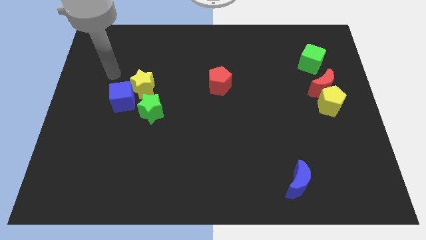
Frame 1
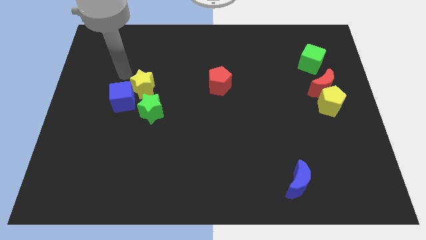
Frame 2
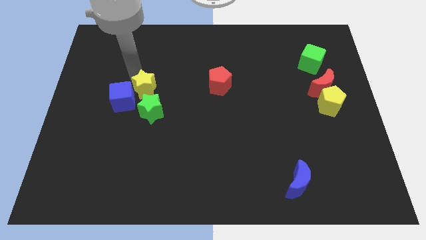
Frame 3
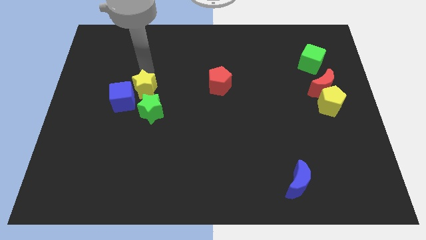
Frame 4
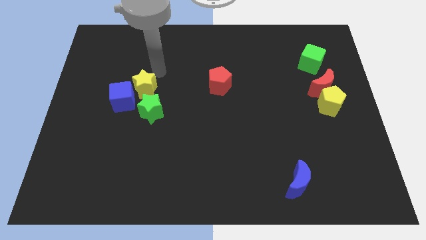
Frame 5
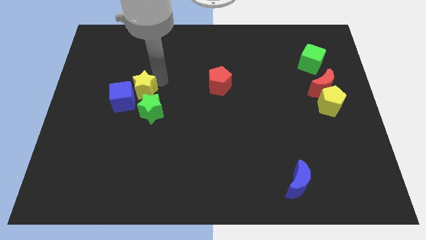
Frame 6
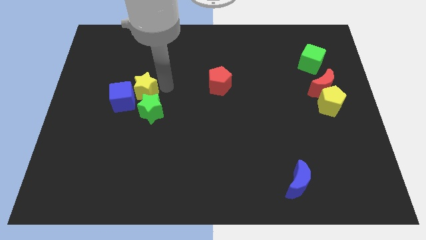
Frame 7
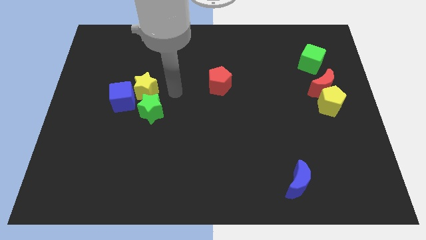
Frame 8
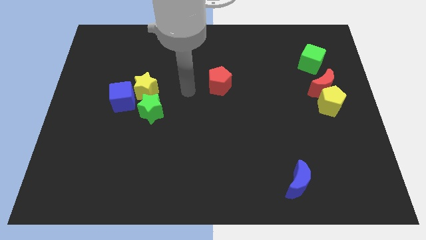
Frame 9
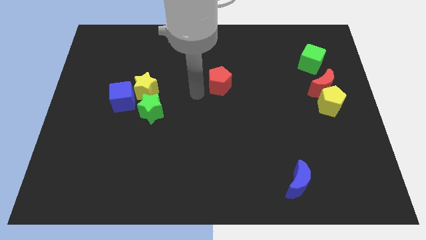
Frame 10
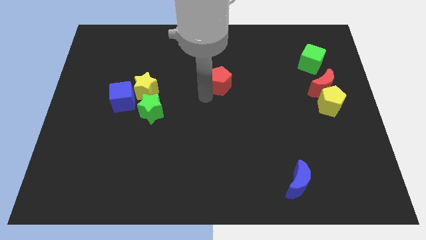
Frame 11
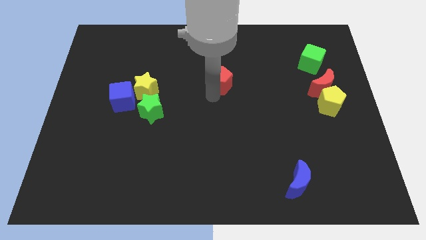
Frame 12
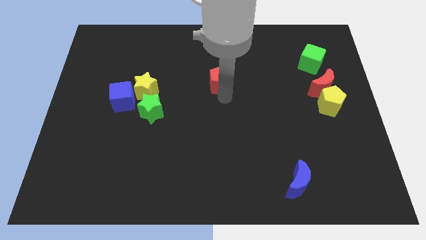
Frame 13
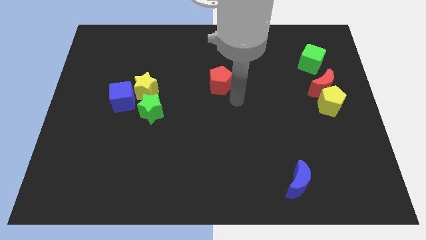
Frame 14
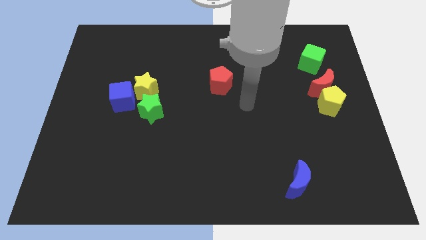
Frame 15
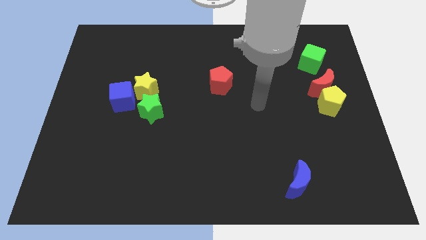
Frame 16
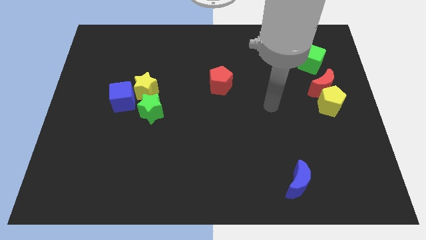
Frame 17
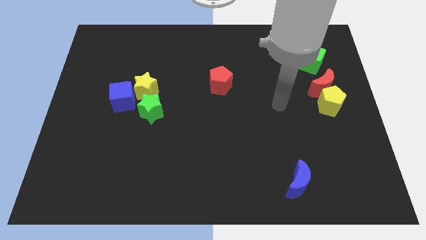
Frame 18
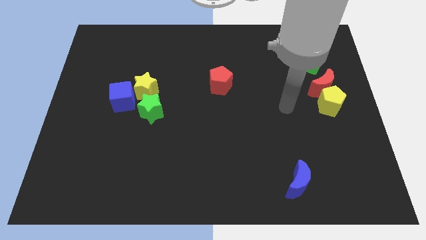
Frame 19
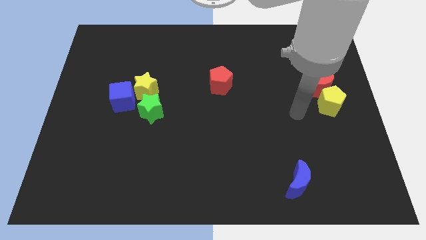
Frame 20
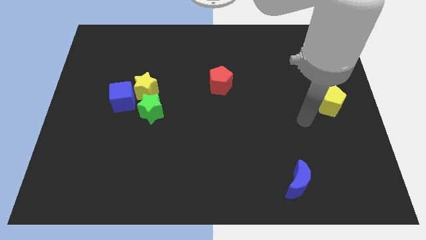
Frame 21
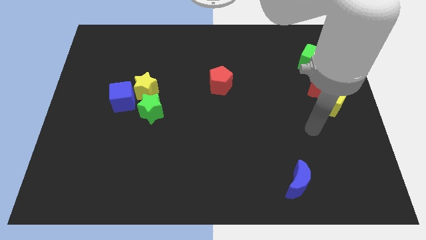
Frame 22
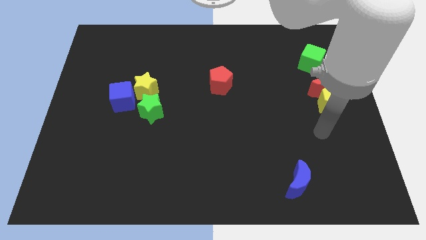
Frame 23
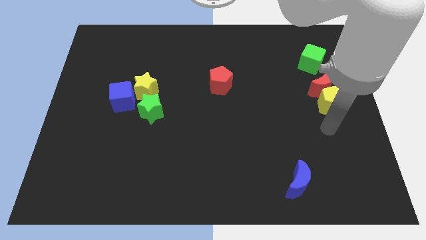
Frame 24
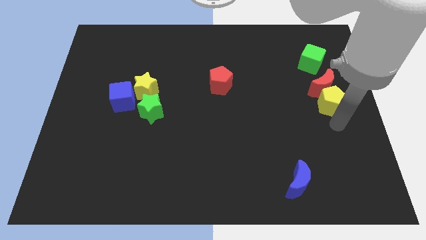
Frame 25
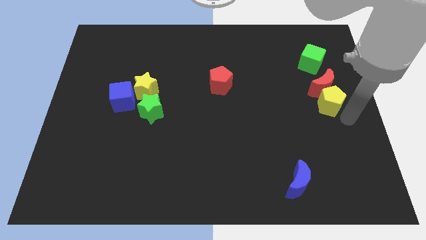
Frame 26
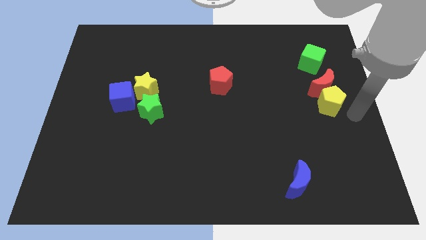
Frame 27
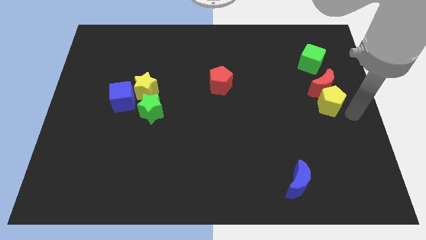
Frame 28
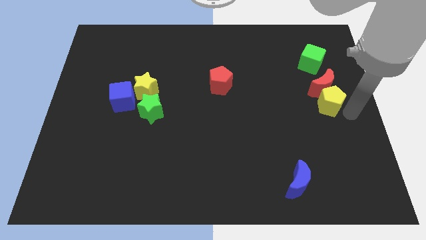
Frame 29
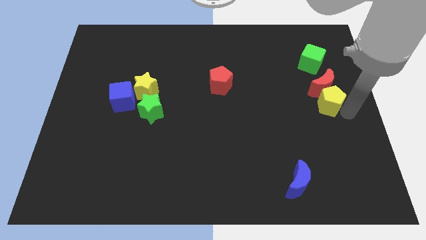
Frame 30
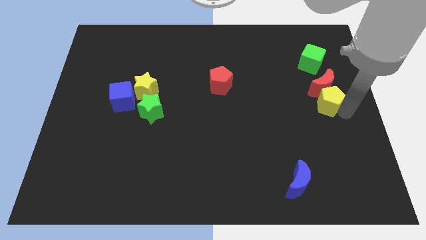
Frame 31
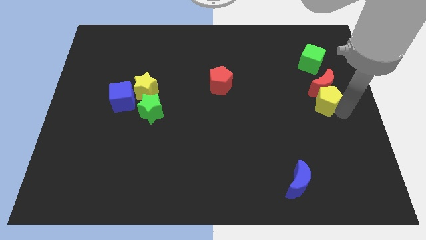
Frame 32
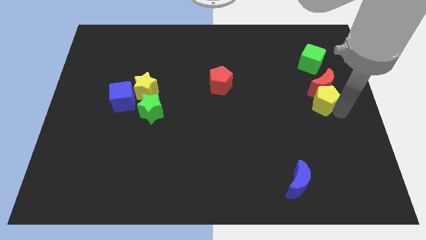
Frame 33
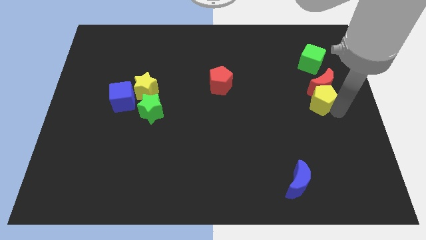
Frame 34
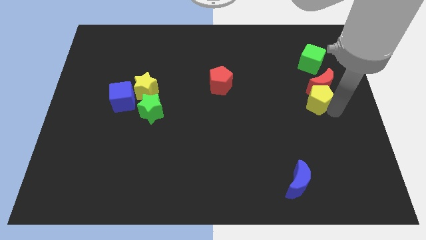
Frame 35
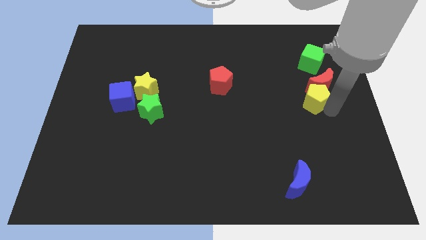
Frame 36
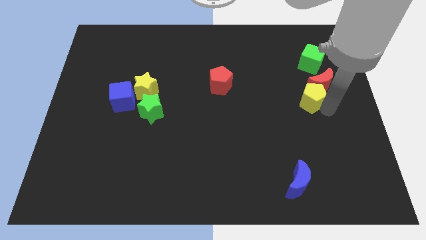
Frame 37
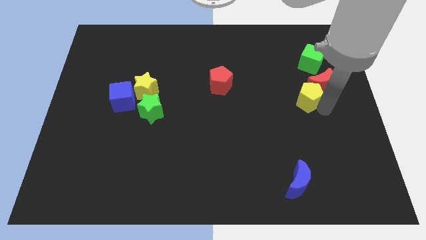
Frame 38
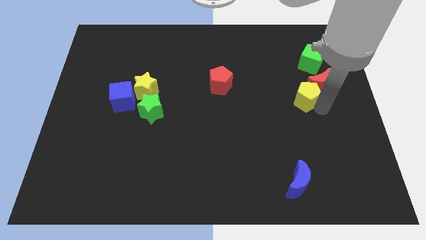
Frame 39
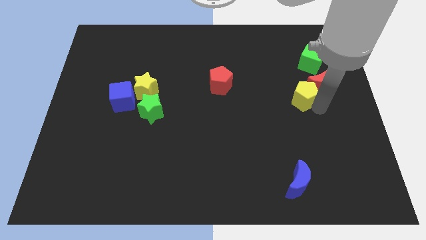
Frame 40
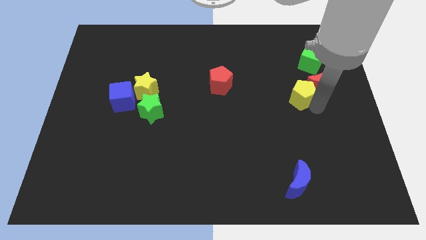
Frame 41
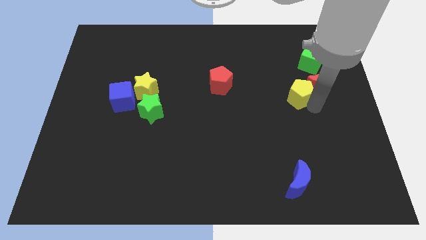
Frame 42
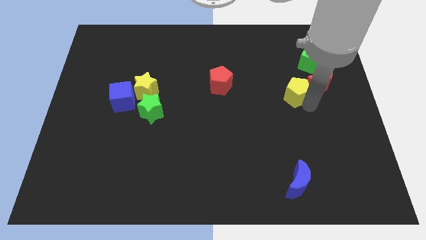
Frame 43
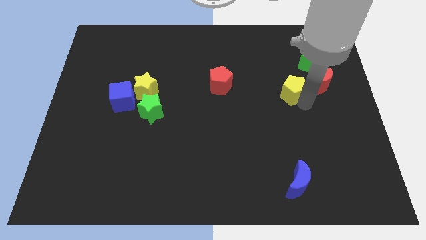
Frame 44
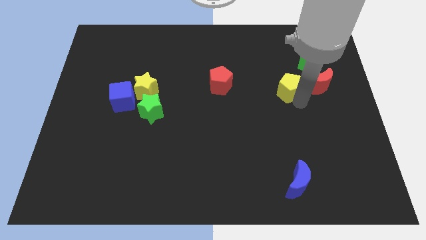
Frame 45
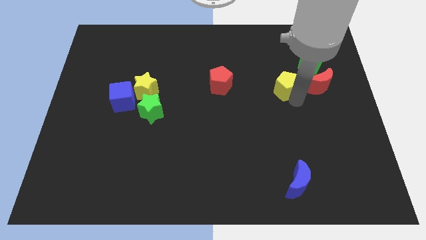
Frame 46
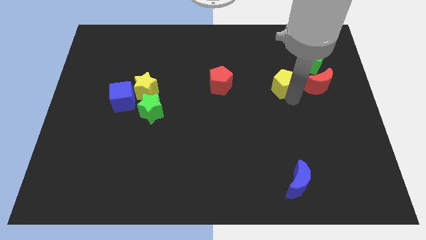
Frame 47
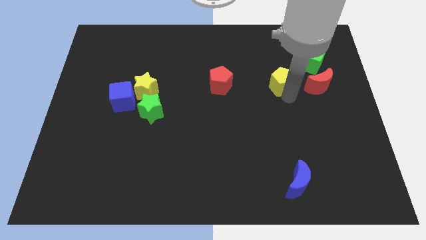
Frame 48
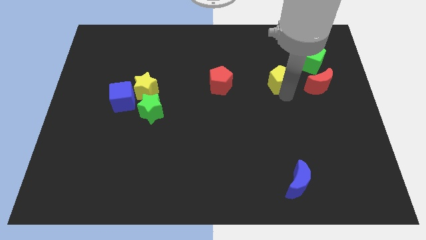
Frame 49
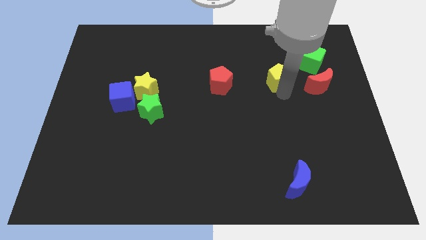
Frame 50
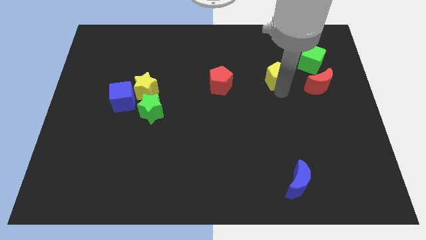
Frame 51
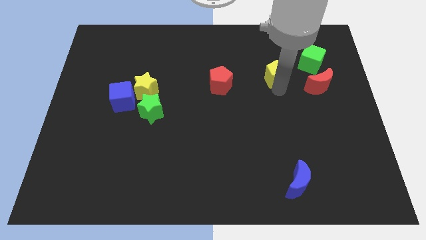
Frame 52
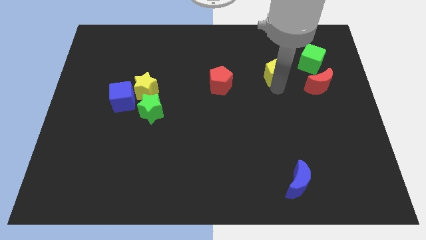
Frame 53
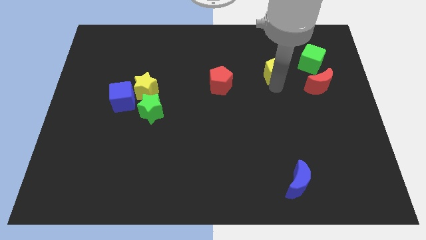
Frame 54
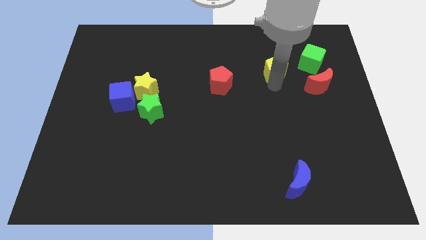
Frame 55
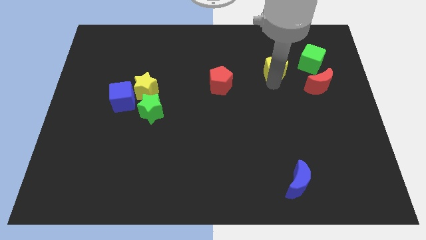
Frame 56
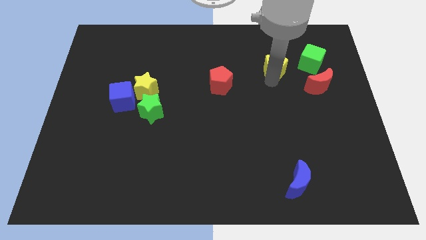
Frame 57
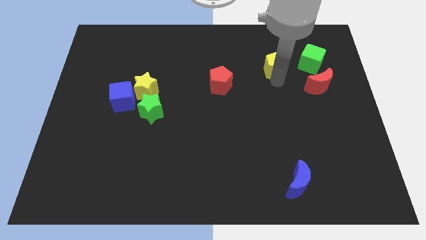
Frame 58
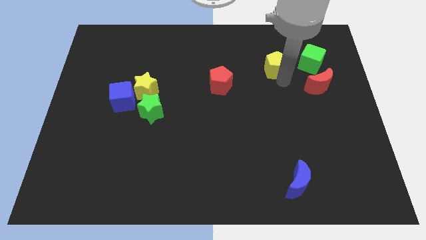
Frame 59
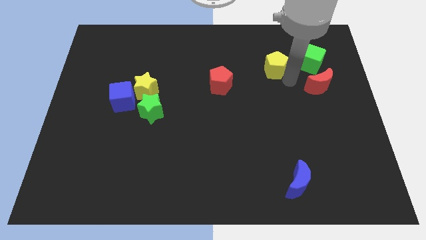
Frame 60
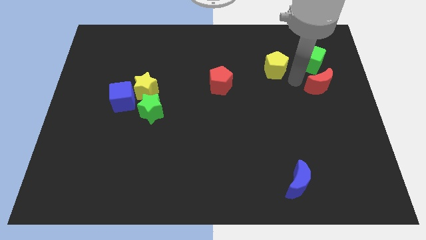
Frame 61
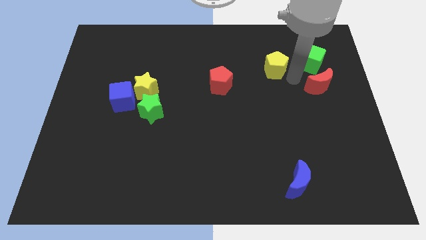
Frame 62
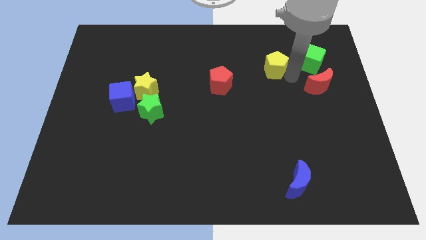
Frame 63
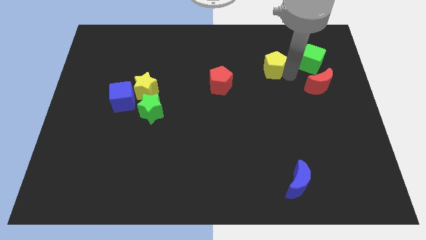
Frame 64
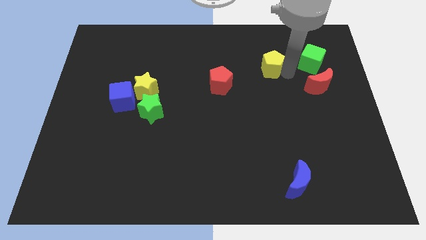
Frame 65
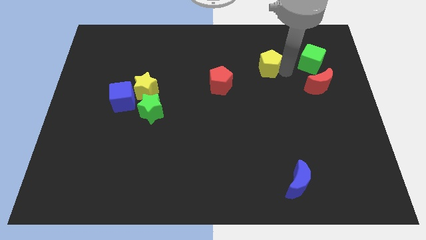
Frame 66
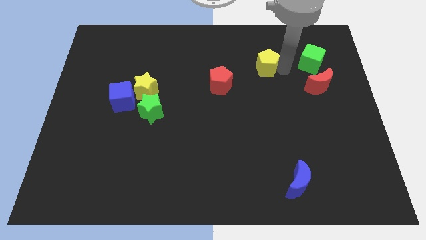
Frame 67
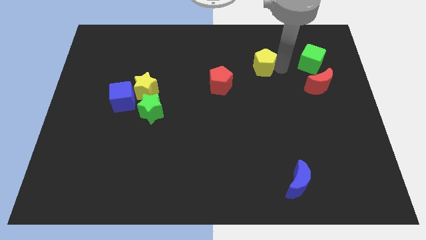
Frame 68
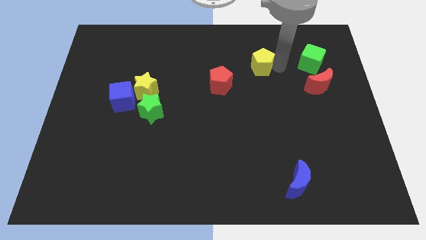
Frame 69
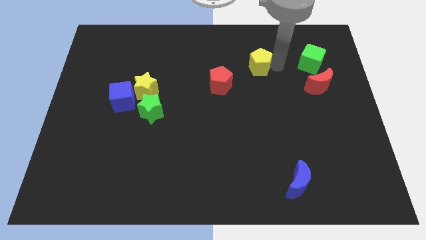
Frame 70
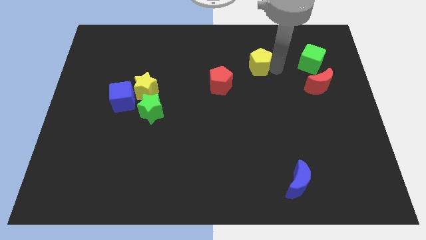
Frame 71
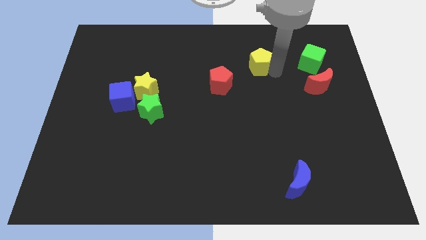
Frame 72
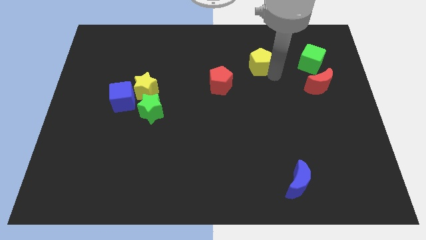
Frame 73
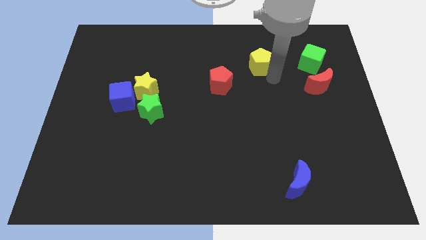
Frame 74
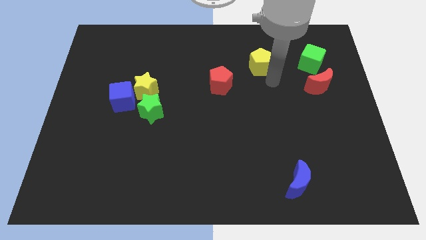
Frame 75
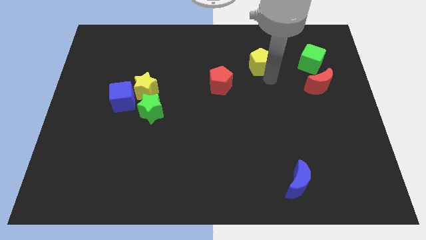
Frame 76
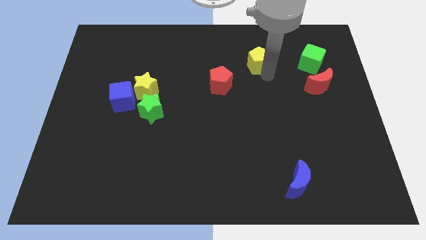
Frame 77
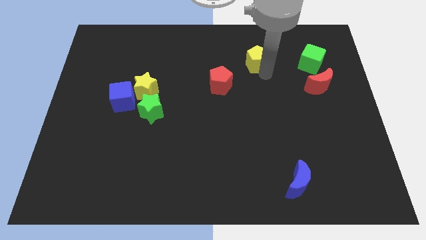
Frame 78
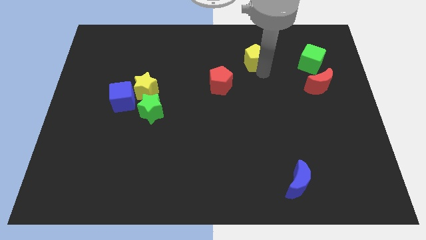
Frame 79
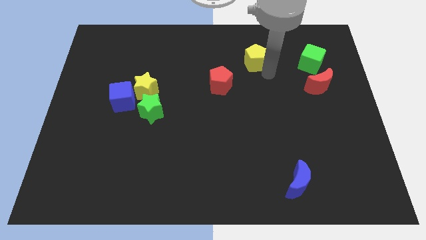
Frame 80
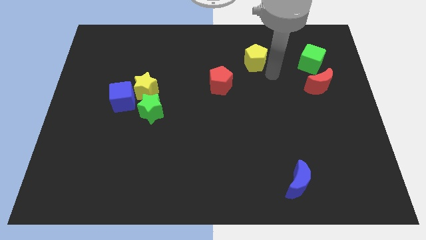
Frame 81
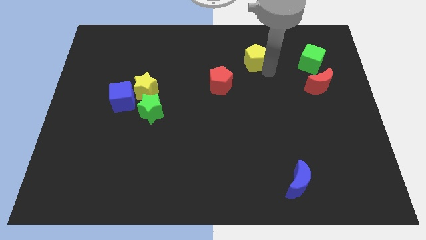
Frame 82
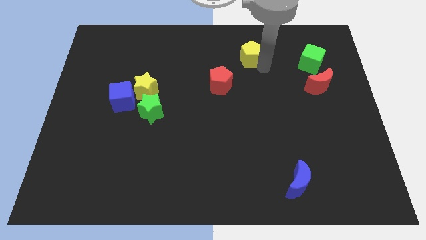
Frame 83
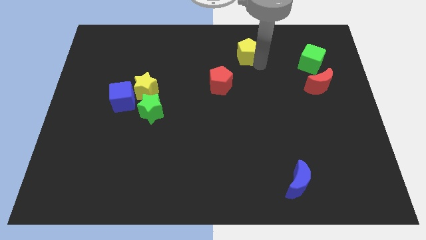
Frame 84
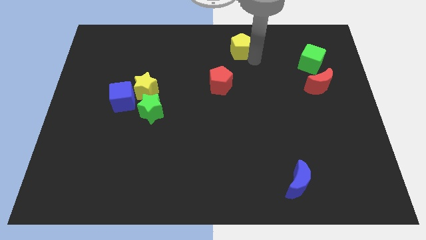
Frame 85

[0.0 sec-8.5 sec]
slide the yellow pentagon to the top side
